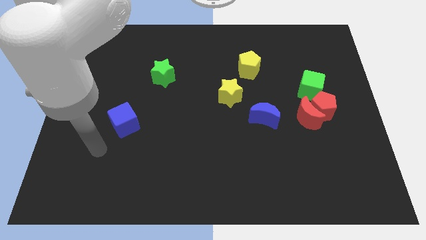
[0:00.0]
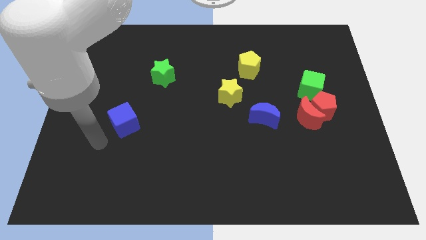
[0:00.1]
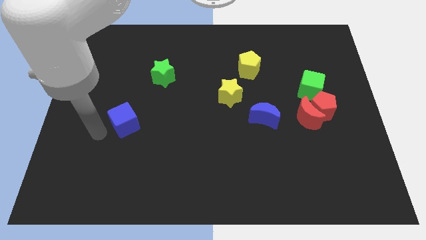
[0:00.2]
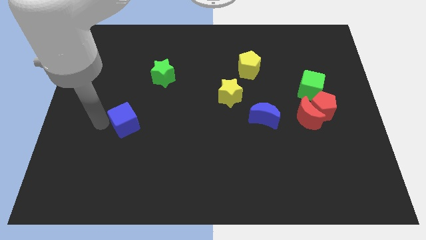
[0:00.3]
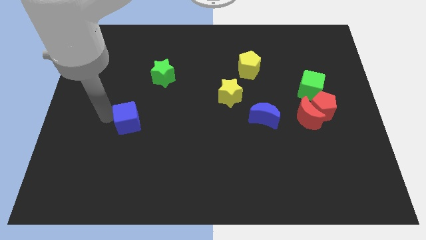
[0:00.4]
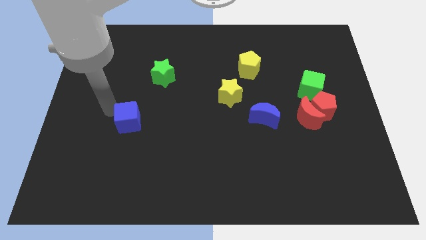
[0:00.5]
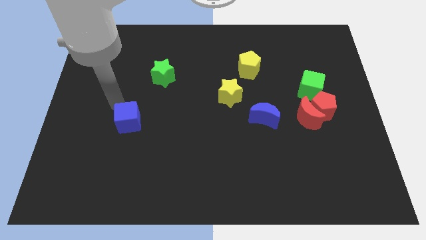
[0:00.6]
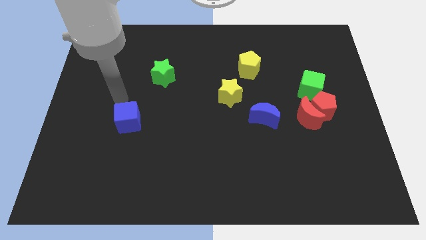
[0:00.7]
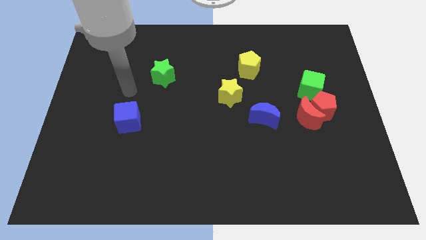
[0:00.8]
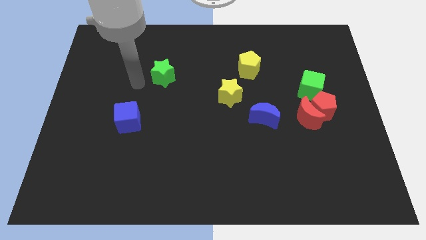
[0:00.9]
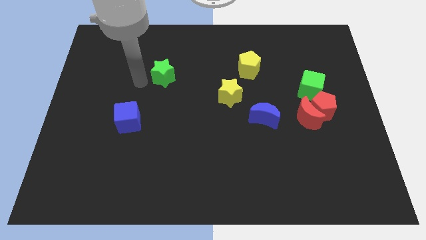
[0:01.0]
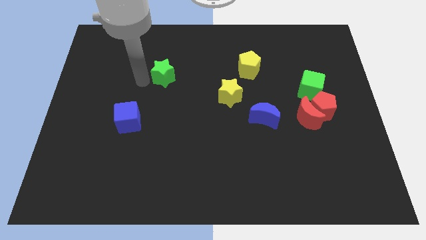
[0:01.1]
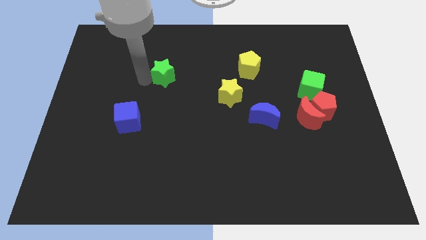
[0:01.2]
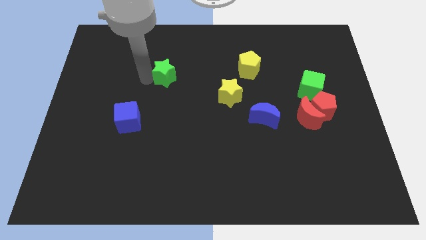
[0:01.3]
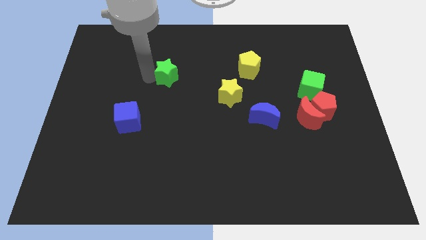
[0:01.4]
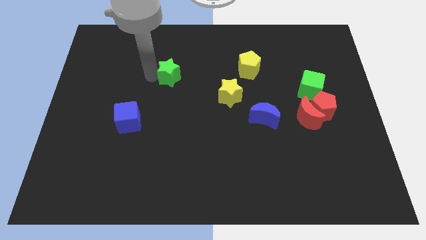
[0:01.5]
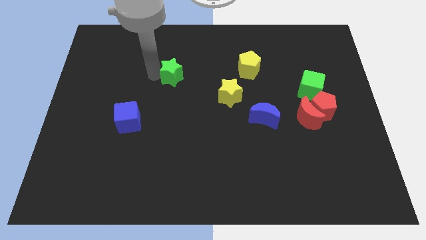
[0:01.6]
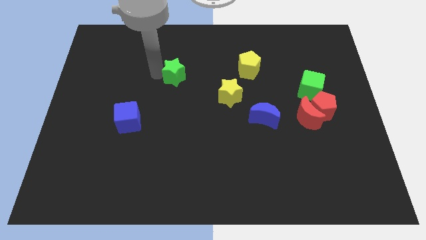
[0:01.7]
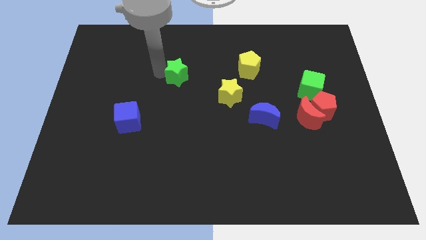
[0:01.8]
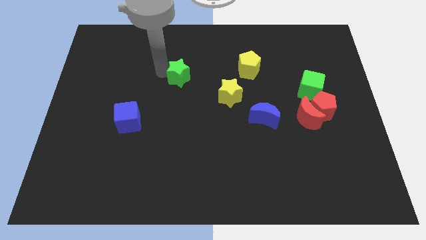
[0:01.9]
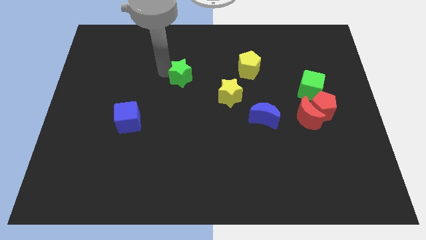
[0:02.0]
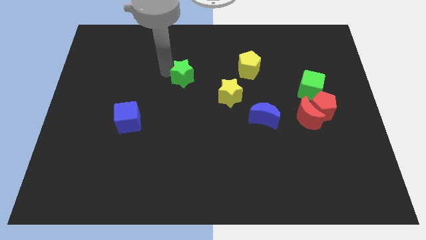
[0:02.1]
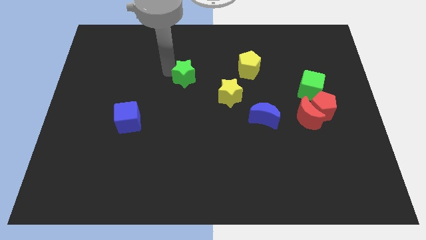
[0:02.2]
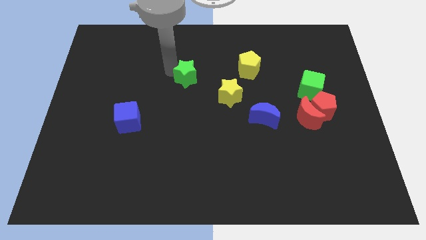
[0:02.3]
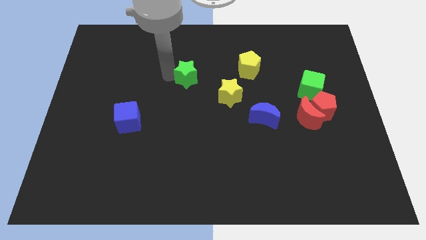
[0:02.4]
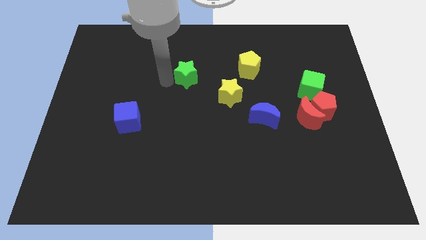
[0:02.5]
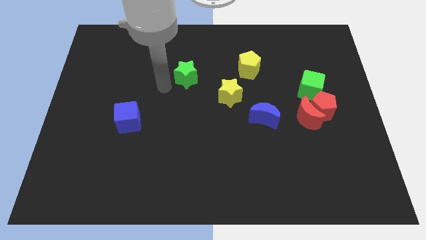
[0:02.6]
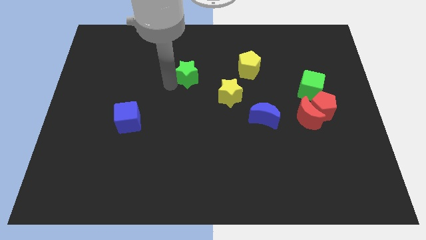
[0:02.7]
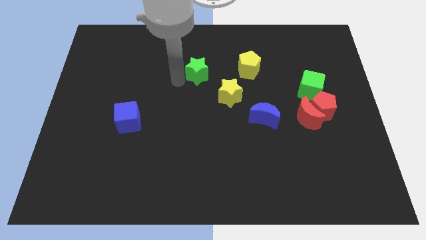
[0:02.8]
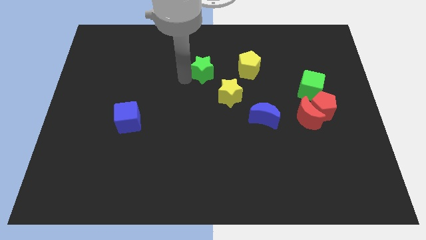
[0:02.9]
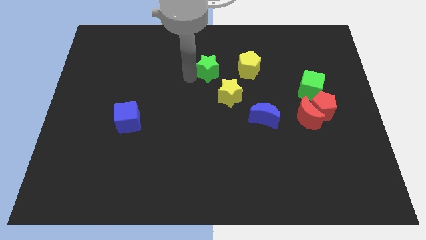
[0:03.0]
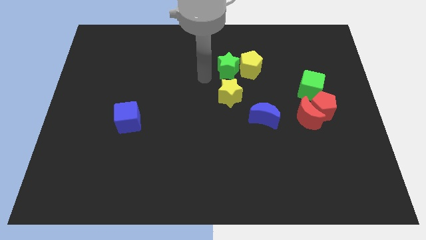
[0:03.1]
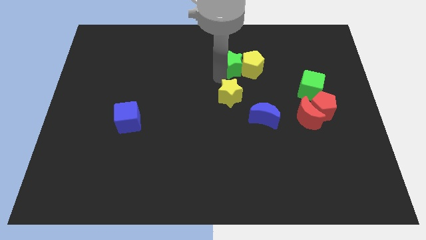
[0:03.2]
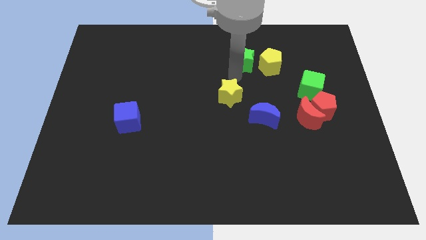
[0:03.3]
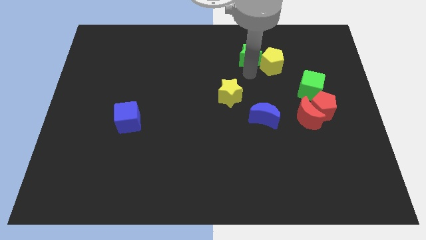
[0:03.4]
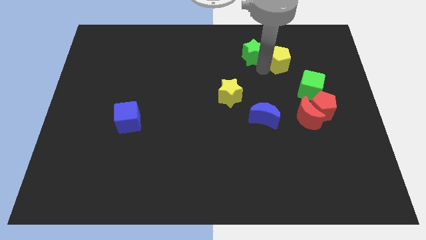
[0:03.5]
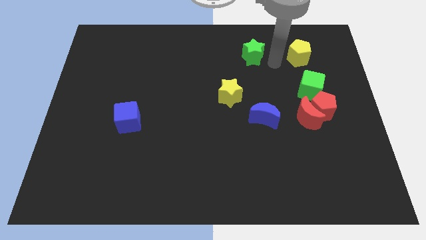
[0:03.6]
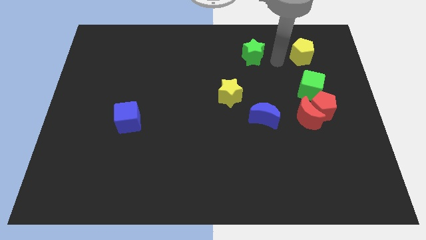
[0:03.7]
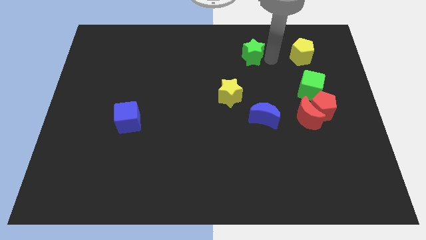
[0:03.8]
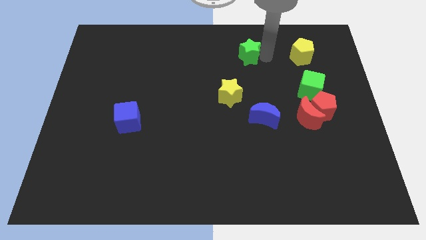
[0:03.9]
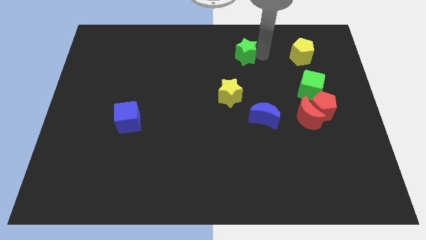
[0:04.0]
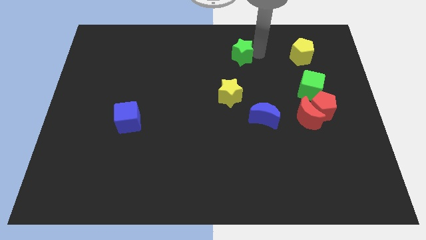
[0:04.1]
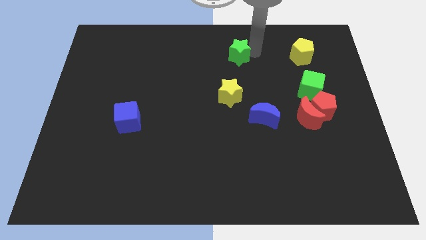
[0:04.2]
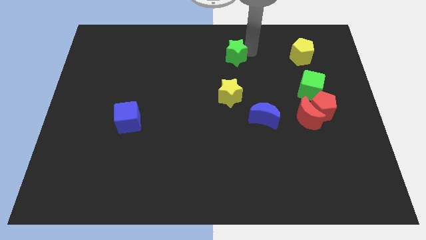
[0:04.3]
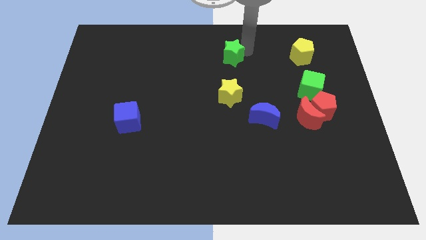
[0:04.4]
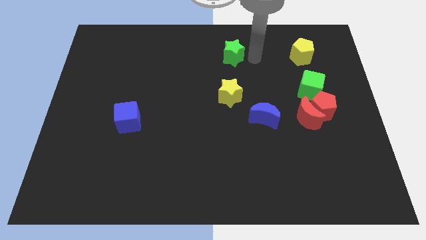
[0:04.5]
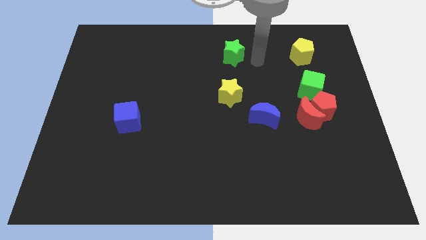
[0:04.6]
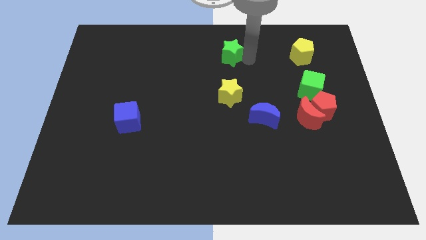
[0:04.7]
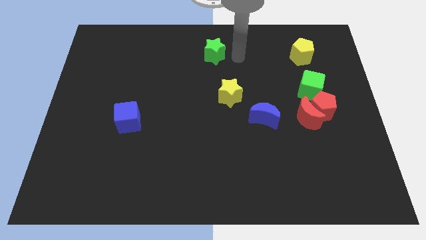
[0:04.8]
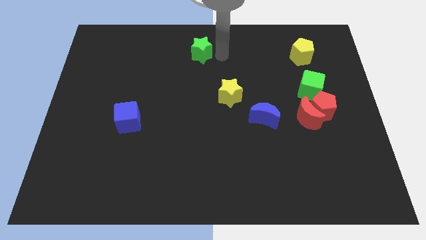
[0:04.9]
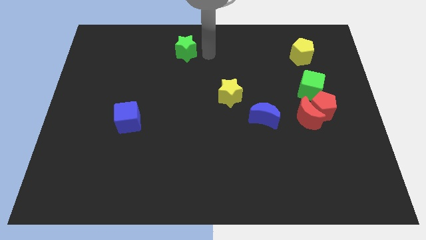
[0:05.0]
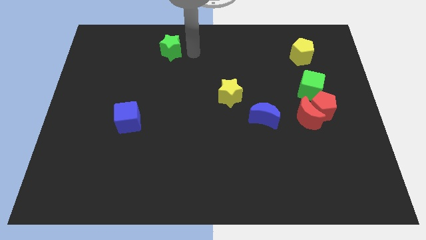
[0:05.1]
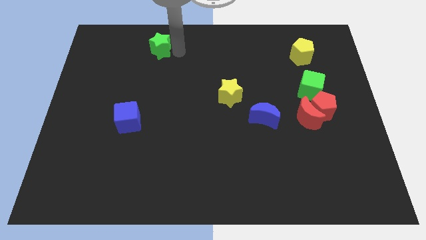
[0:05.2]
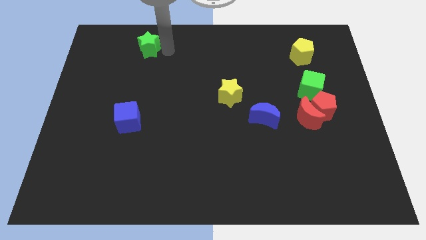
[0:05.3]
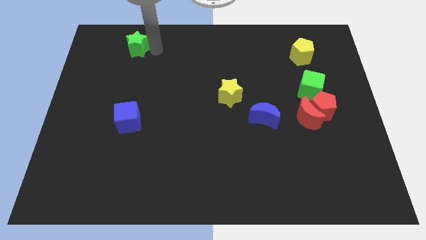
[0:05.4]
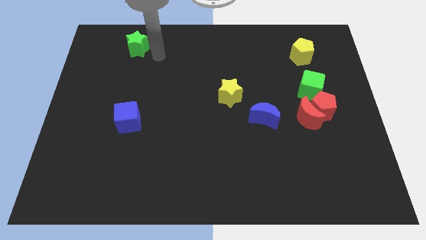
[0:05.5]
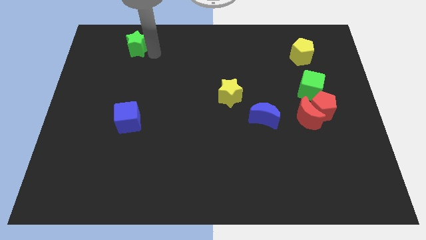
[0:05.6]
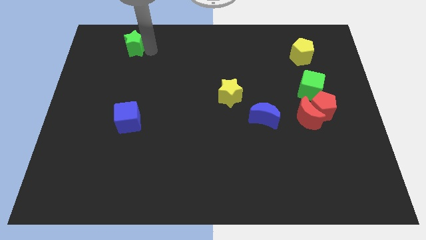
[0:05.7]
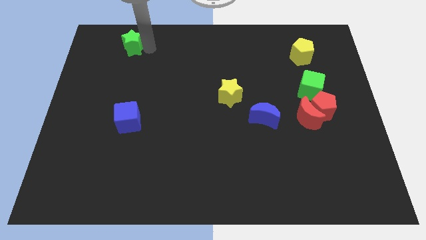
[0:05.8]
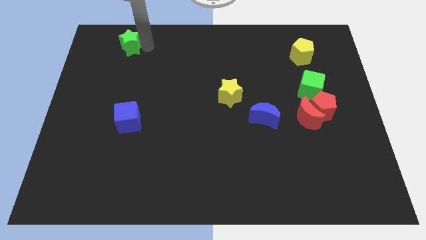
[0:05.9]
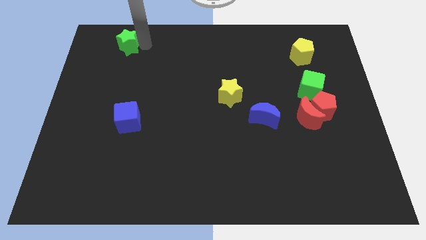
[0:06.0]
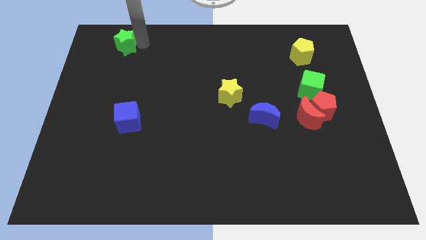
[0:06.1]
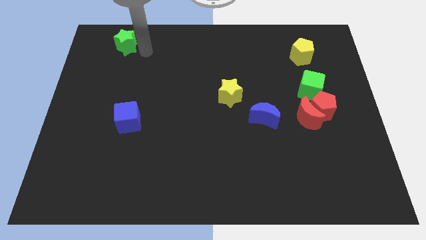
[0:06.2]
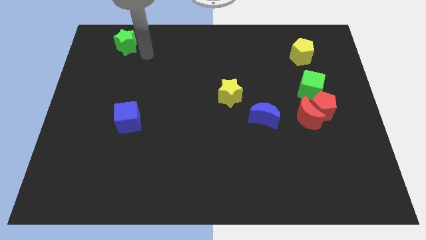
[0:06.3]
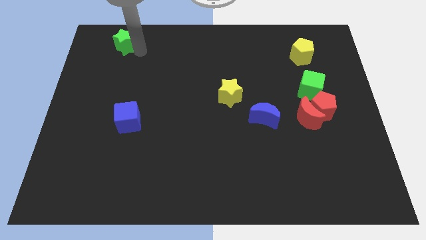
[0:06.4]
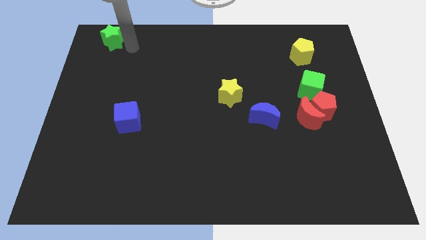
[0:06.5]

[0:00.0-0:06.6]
move the green star to the top left corner

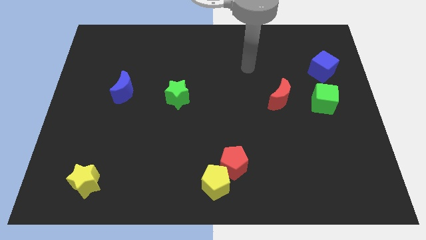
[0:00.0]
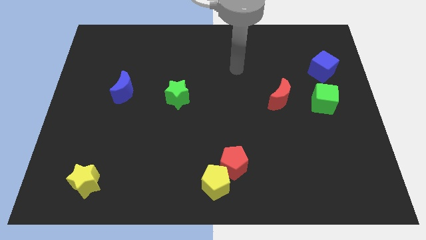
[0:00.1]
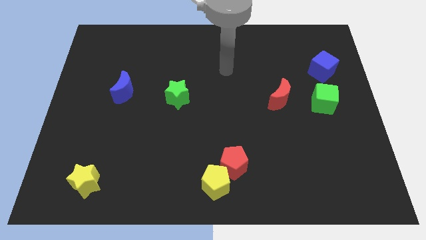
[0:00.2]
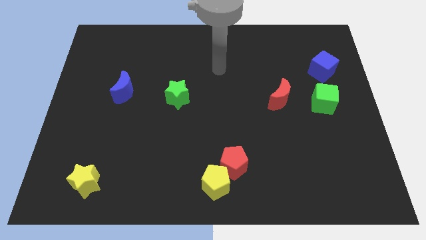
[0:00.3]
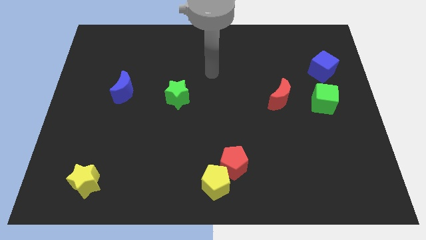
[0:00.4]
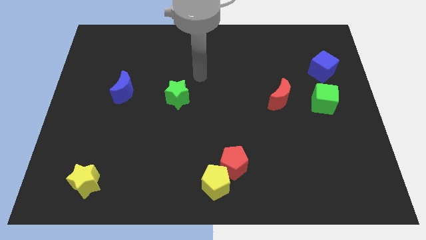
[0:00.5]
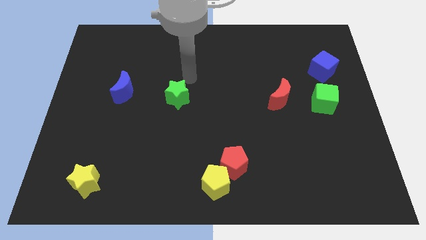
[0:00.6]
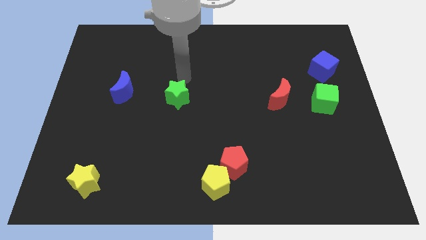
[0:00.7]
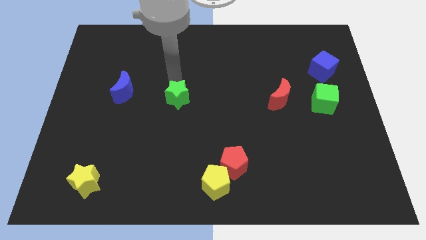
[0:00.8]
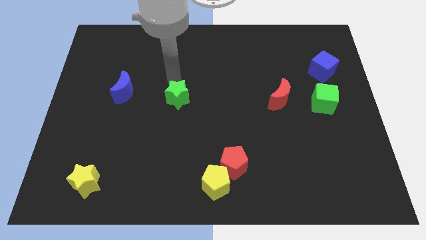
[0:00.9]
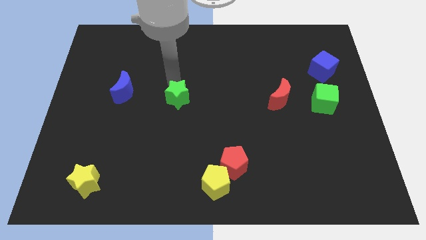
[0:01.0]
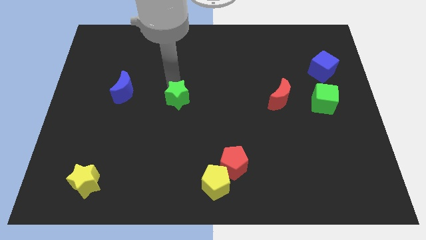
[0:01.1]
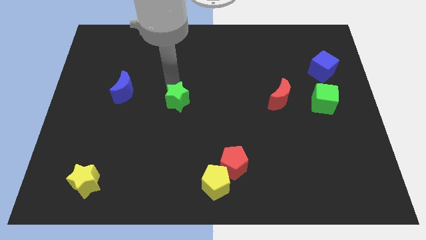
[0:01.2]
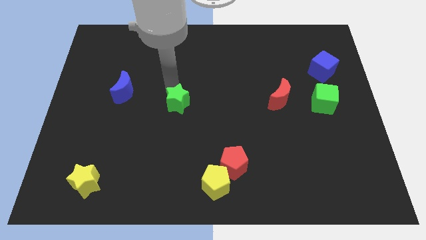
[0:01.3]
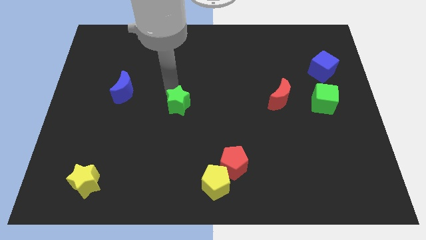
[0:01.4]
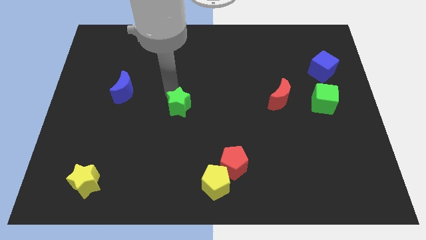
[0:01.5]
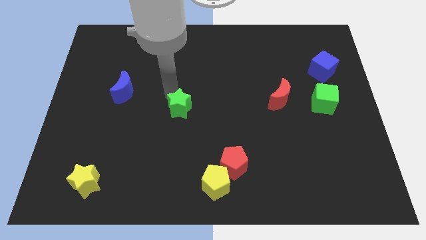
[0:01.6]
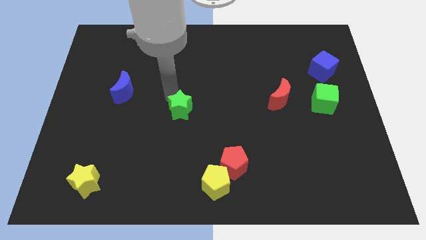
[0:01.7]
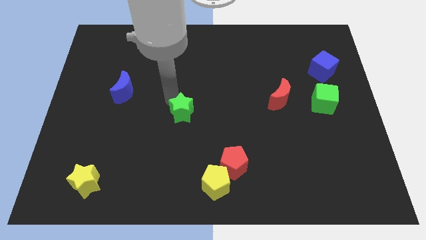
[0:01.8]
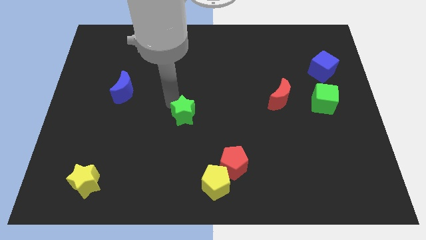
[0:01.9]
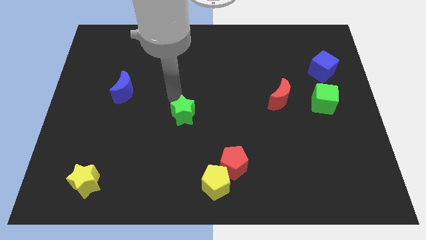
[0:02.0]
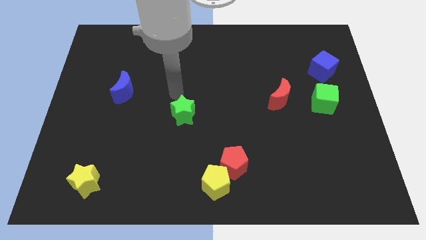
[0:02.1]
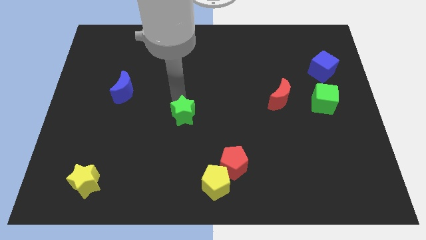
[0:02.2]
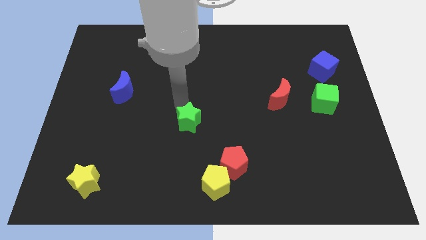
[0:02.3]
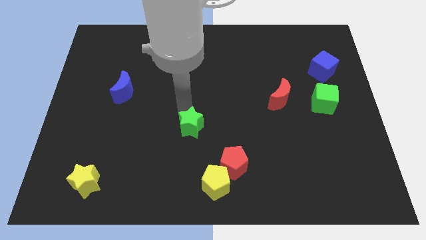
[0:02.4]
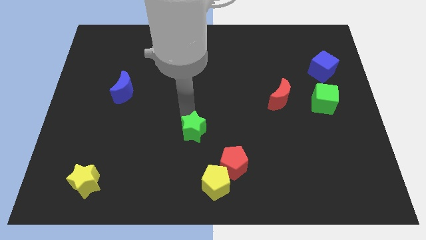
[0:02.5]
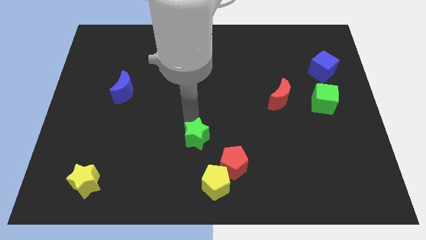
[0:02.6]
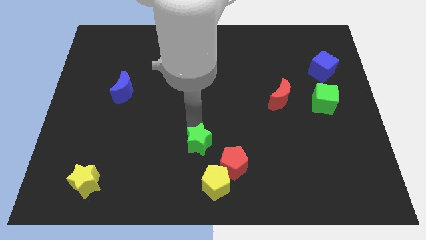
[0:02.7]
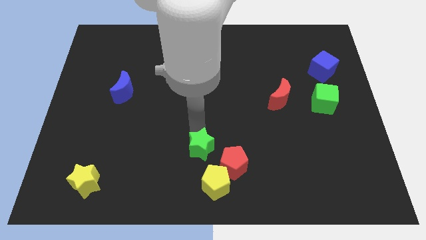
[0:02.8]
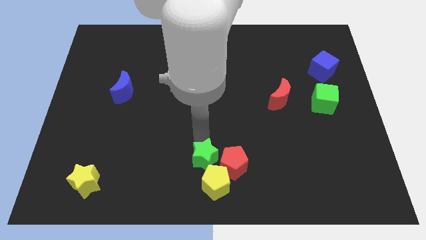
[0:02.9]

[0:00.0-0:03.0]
move the green star to the bottom
